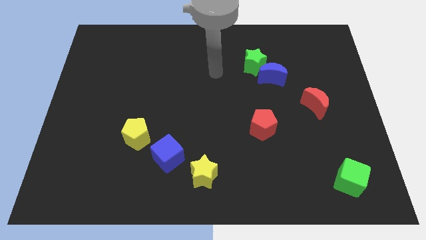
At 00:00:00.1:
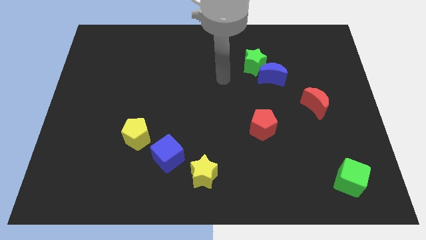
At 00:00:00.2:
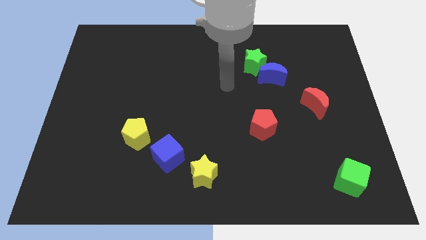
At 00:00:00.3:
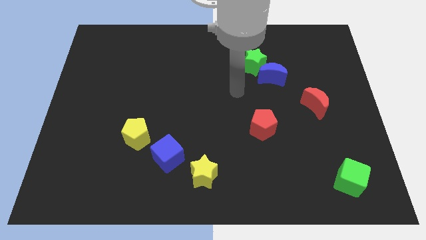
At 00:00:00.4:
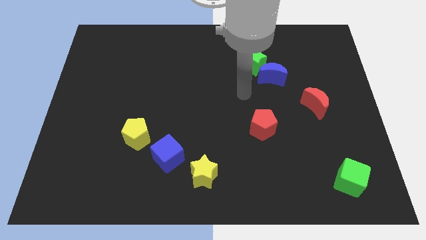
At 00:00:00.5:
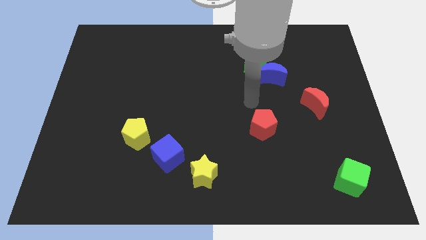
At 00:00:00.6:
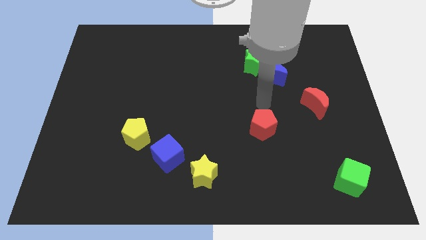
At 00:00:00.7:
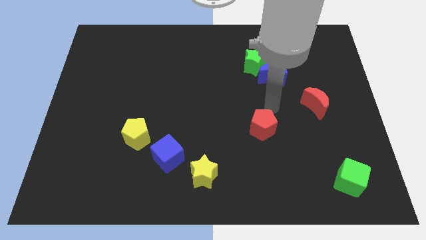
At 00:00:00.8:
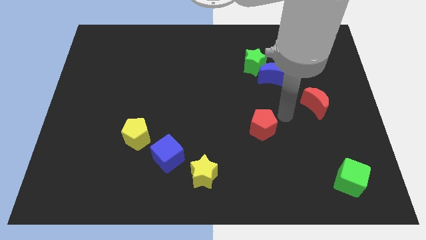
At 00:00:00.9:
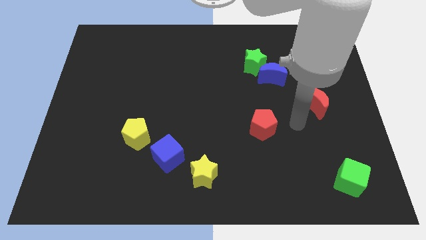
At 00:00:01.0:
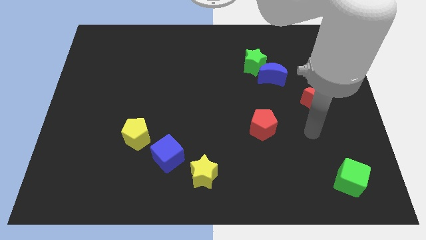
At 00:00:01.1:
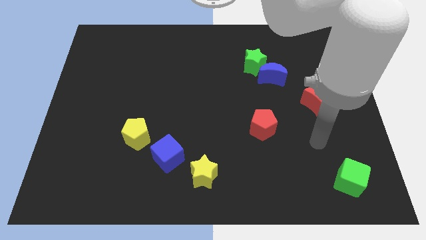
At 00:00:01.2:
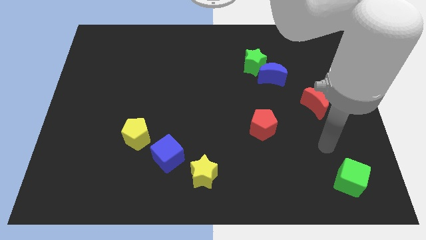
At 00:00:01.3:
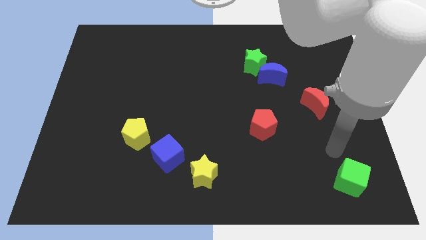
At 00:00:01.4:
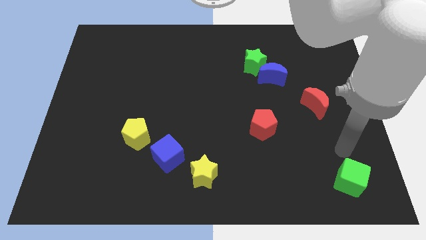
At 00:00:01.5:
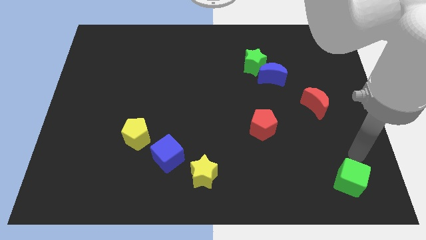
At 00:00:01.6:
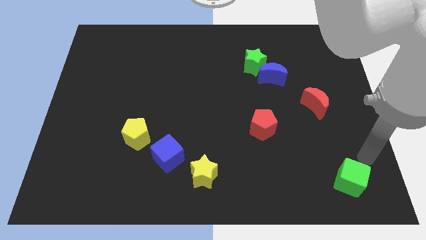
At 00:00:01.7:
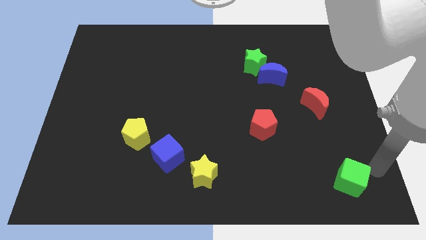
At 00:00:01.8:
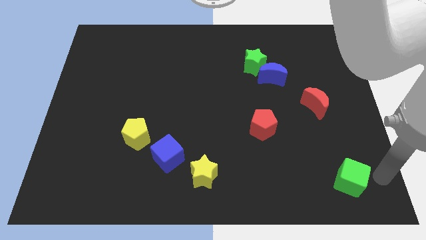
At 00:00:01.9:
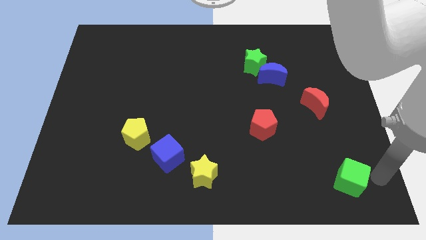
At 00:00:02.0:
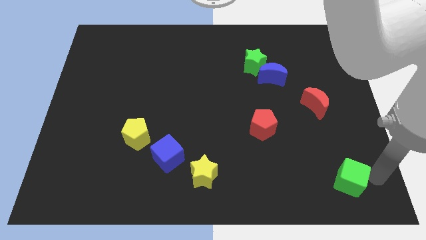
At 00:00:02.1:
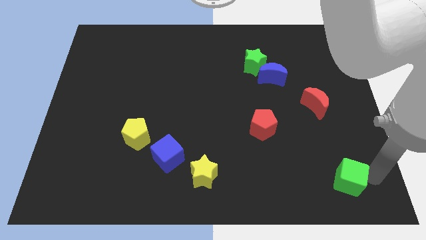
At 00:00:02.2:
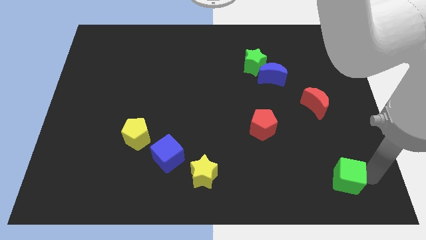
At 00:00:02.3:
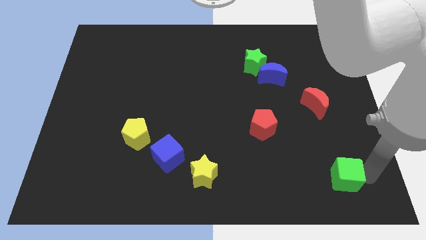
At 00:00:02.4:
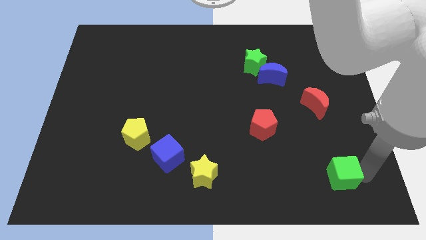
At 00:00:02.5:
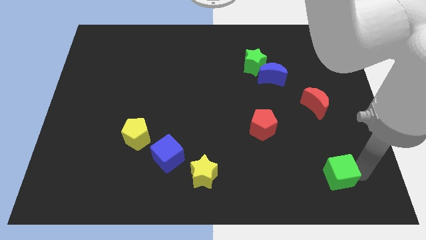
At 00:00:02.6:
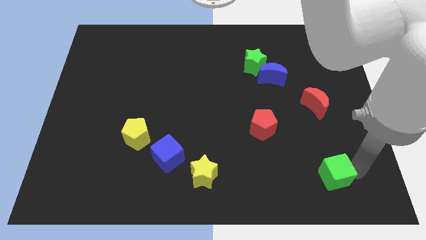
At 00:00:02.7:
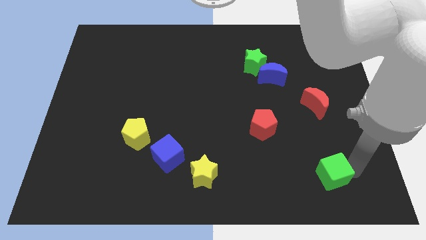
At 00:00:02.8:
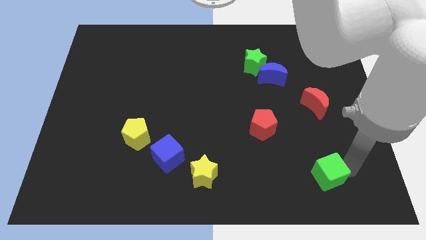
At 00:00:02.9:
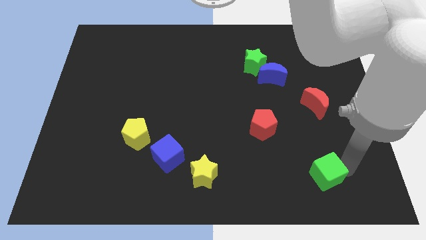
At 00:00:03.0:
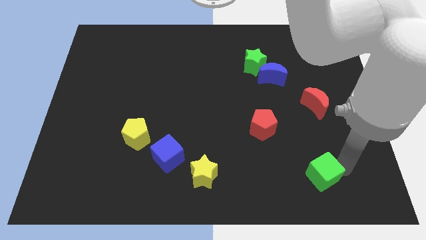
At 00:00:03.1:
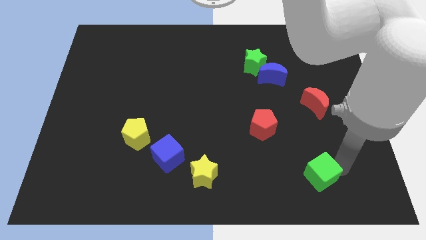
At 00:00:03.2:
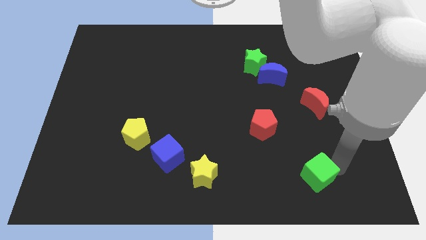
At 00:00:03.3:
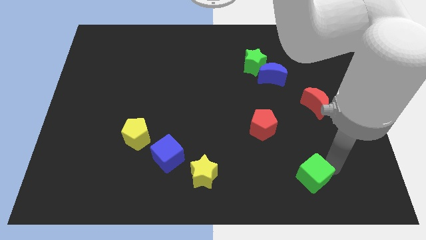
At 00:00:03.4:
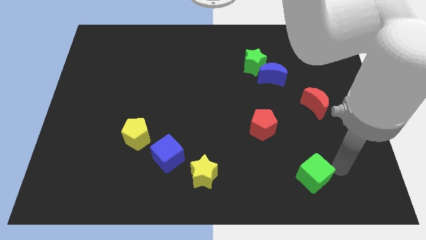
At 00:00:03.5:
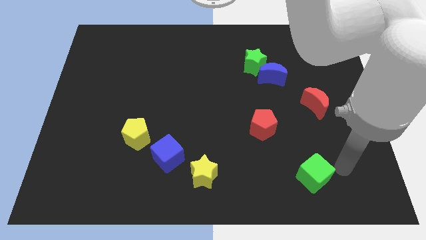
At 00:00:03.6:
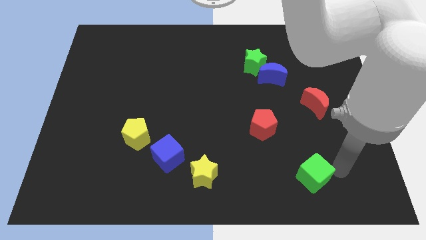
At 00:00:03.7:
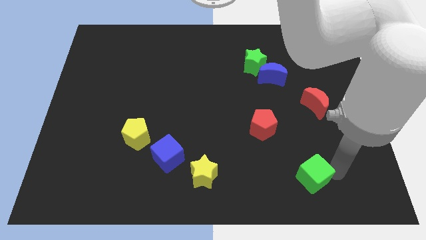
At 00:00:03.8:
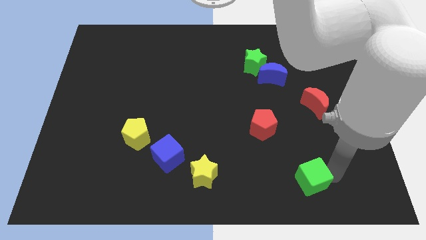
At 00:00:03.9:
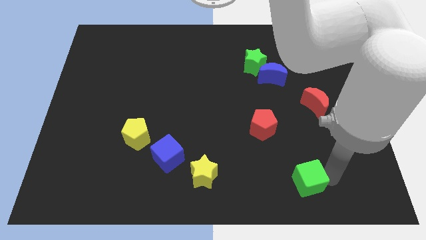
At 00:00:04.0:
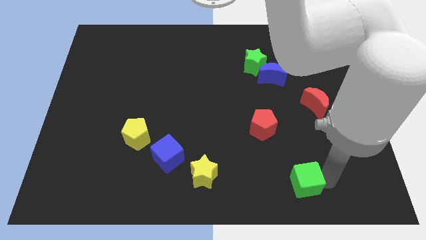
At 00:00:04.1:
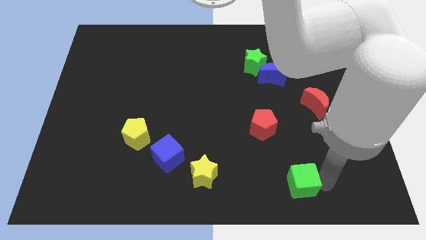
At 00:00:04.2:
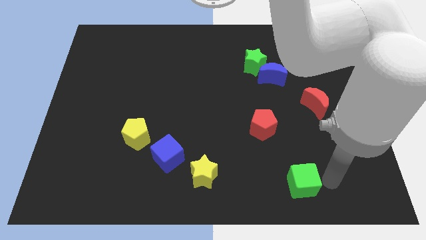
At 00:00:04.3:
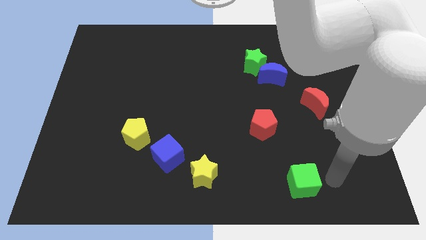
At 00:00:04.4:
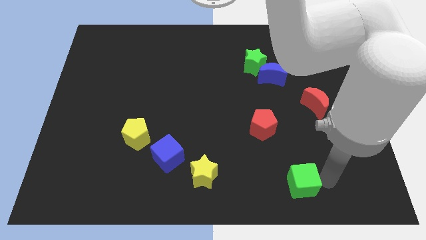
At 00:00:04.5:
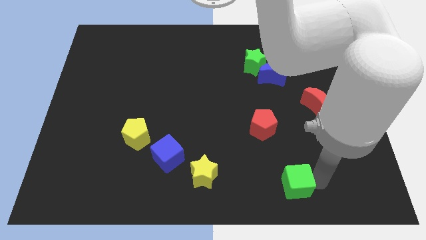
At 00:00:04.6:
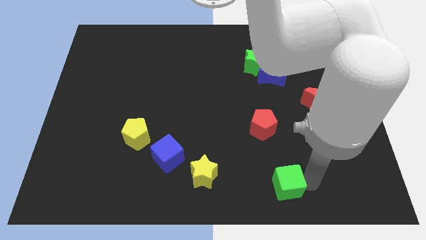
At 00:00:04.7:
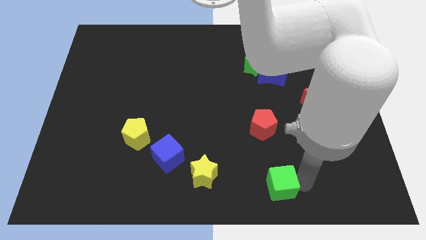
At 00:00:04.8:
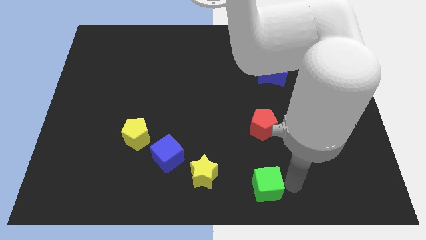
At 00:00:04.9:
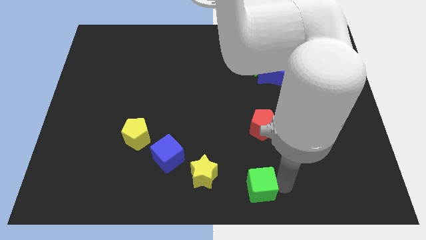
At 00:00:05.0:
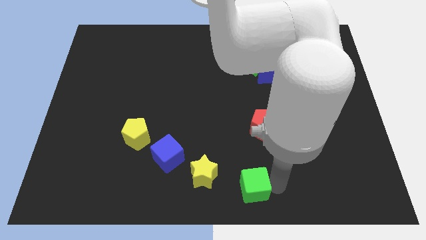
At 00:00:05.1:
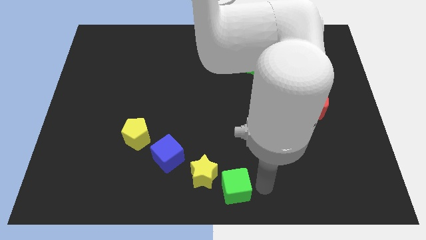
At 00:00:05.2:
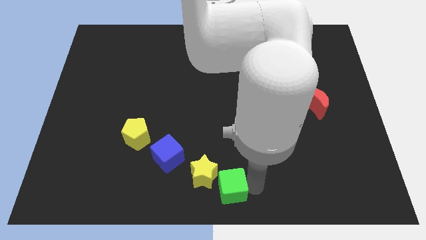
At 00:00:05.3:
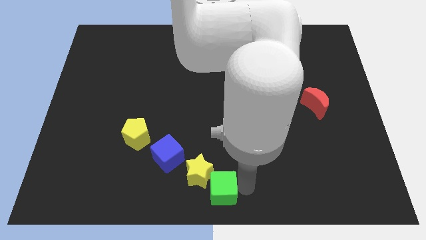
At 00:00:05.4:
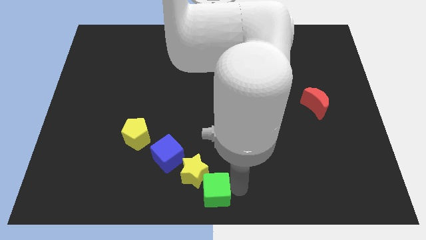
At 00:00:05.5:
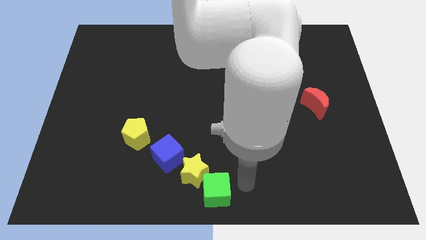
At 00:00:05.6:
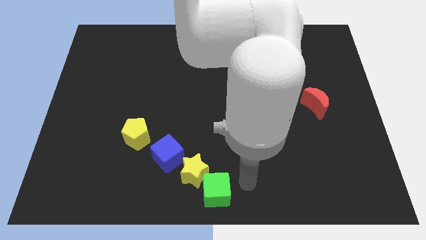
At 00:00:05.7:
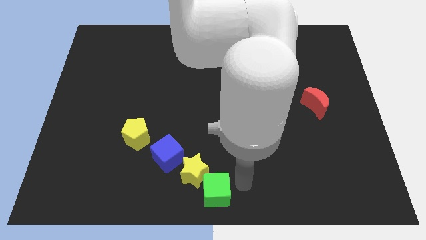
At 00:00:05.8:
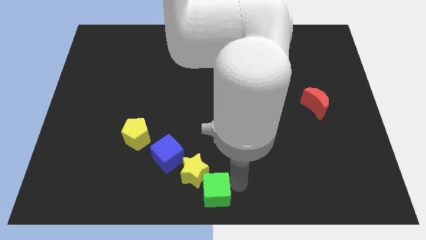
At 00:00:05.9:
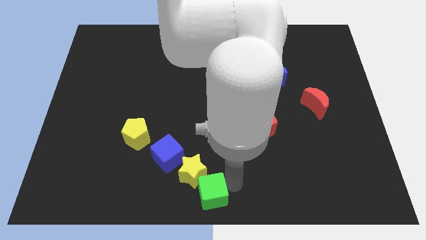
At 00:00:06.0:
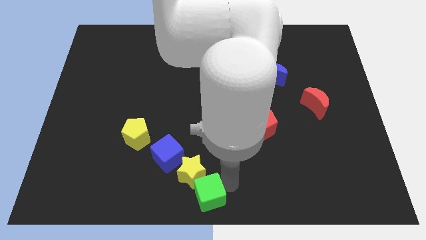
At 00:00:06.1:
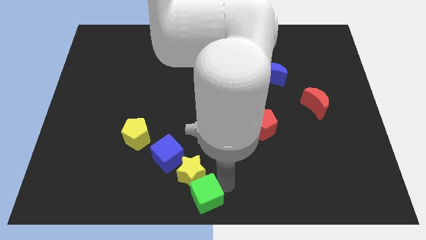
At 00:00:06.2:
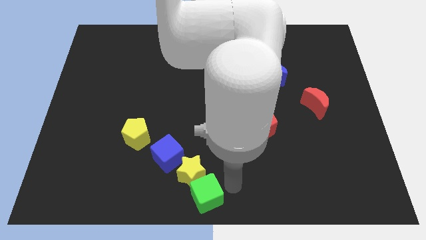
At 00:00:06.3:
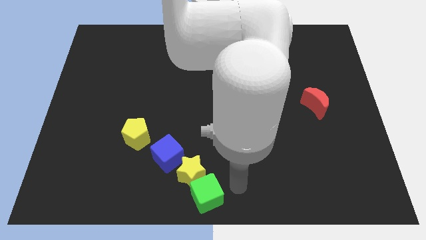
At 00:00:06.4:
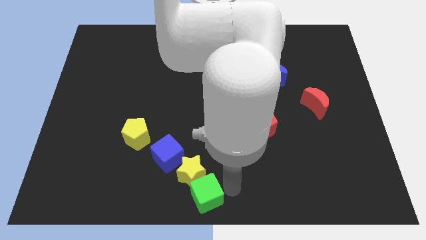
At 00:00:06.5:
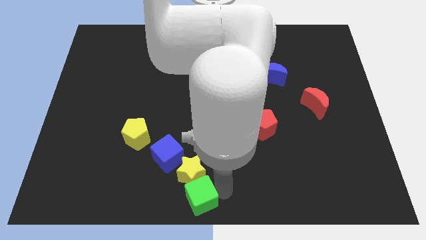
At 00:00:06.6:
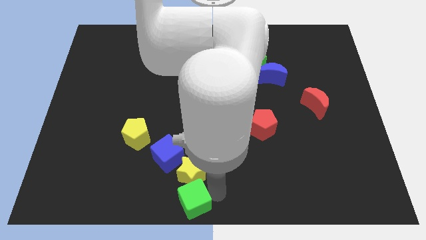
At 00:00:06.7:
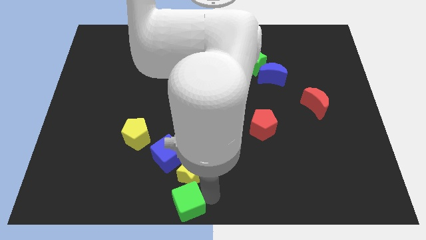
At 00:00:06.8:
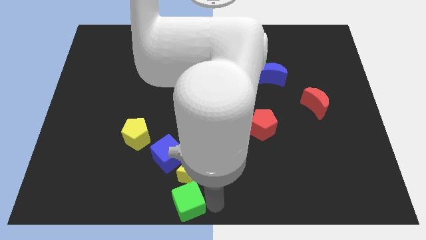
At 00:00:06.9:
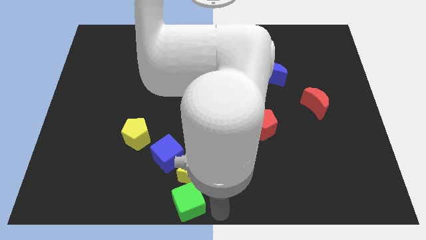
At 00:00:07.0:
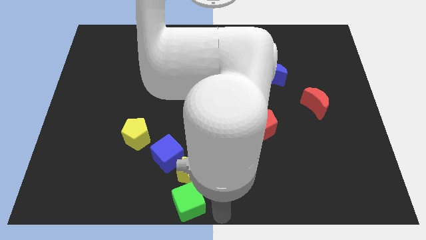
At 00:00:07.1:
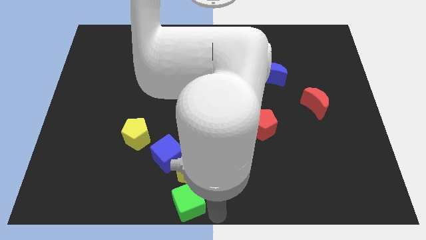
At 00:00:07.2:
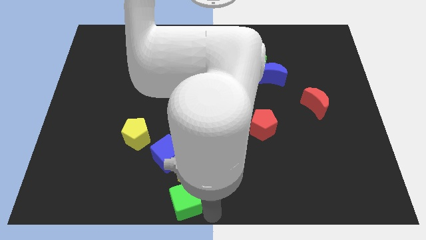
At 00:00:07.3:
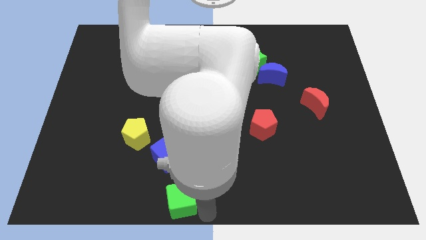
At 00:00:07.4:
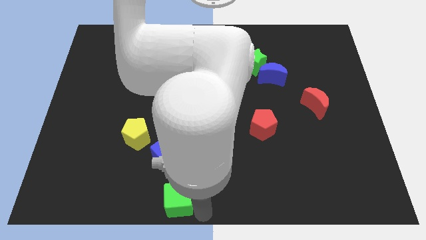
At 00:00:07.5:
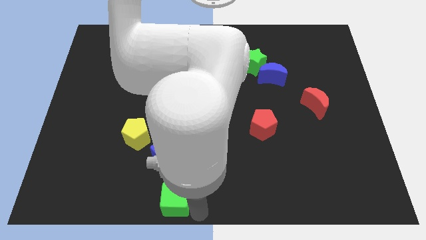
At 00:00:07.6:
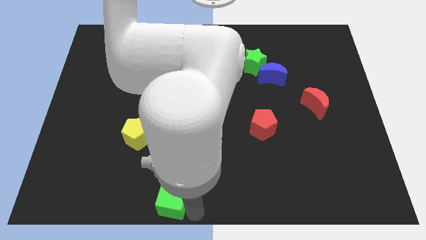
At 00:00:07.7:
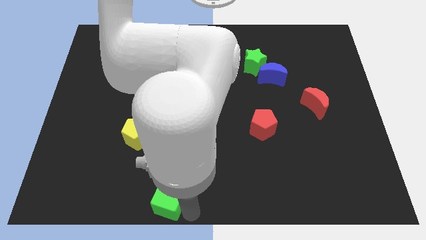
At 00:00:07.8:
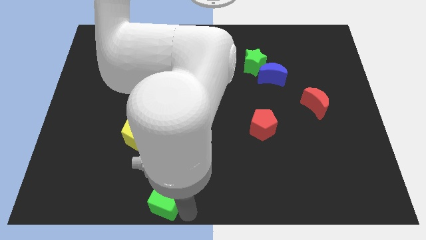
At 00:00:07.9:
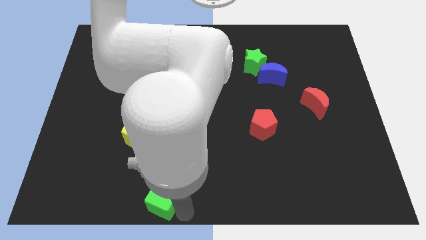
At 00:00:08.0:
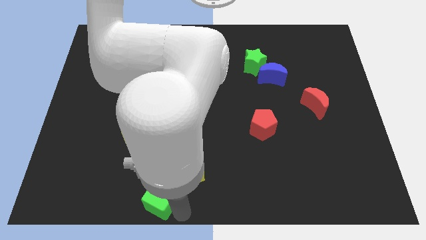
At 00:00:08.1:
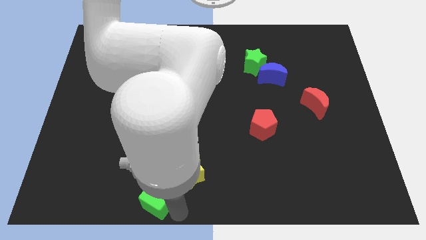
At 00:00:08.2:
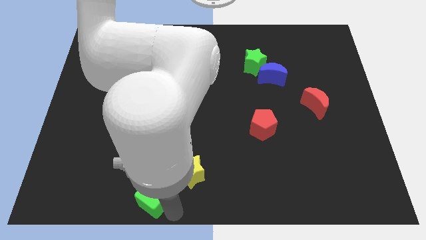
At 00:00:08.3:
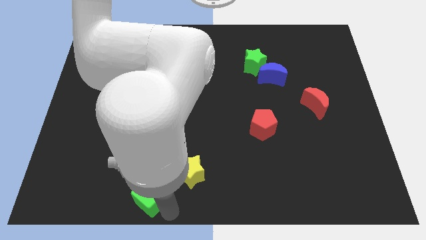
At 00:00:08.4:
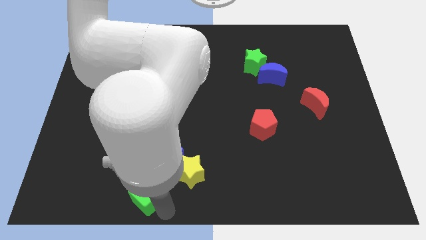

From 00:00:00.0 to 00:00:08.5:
put the green cube to the bottom side of the yellow pentagon
